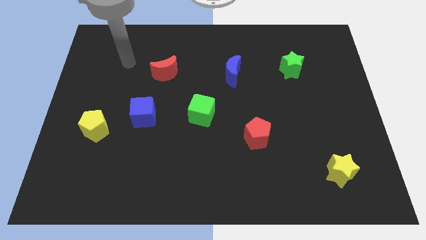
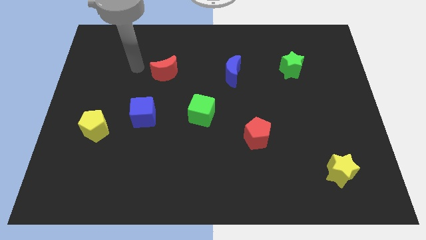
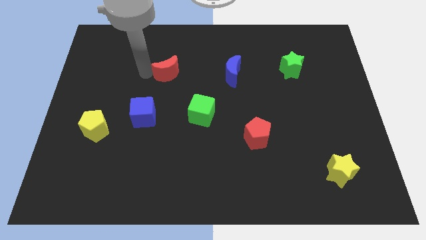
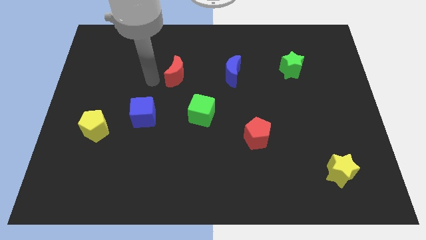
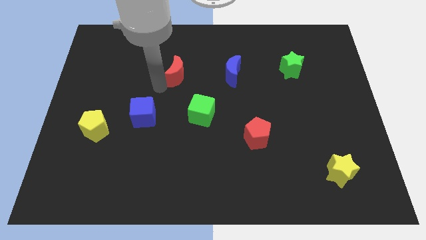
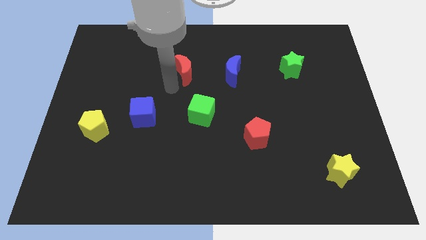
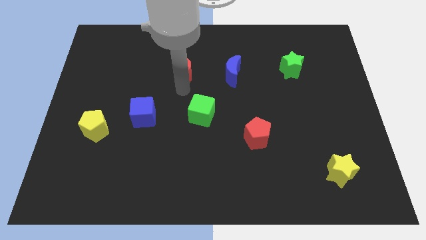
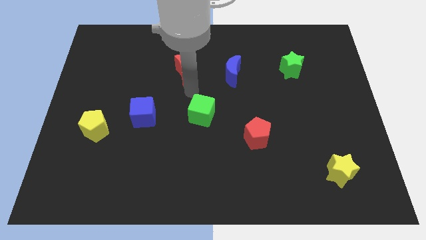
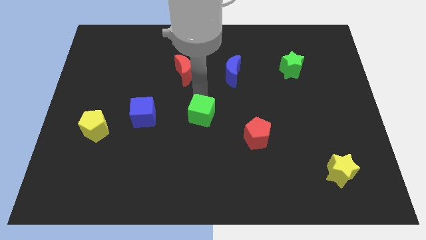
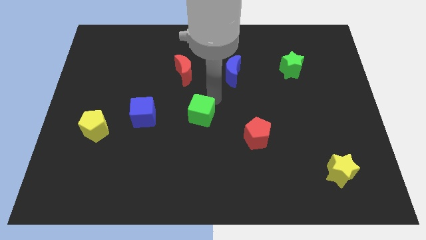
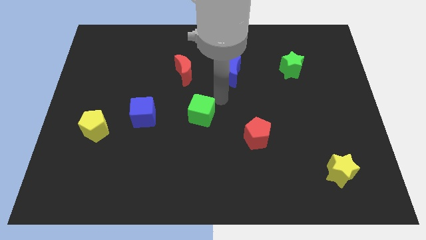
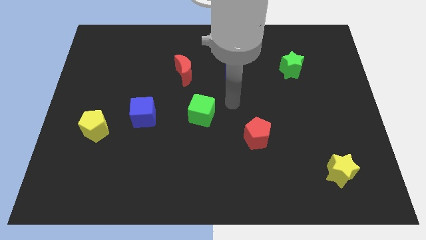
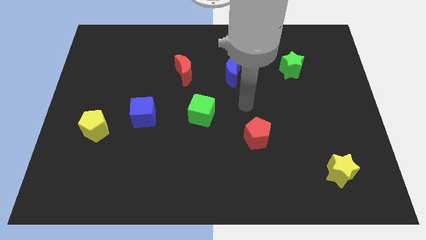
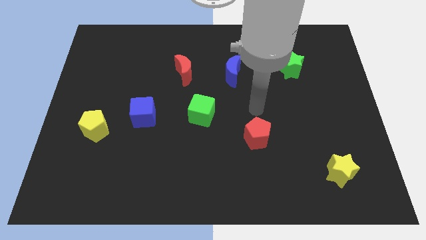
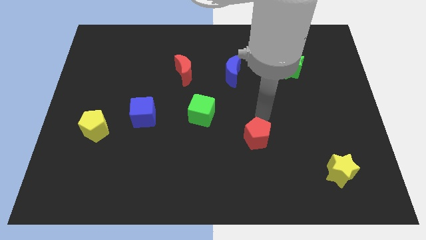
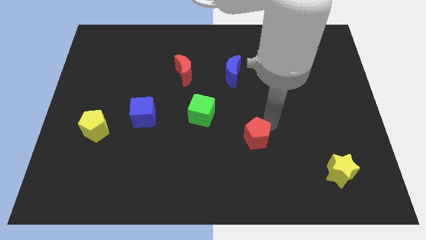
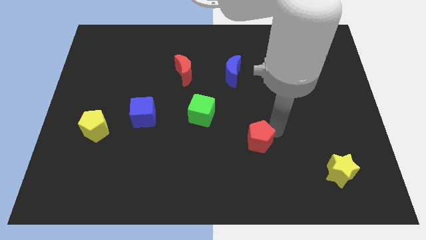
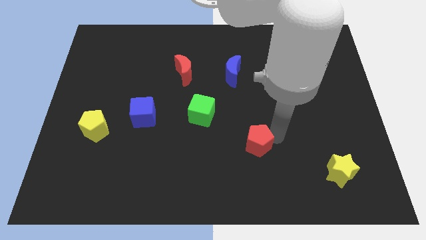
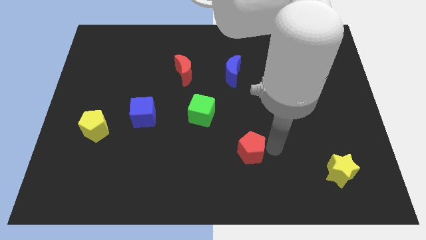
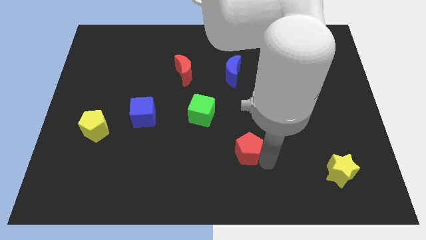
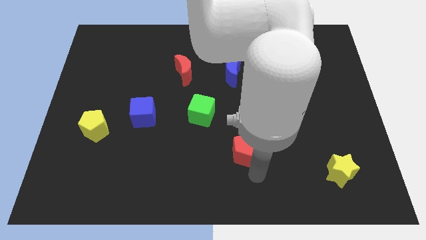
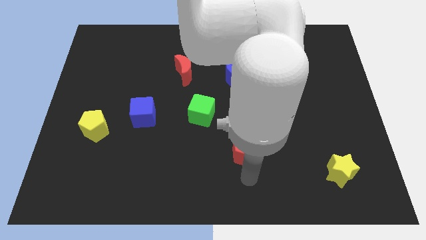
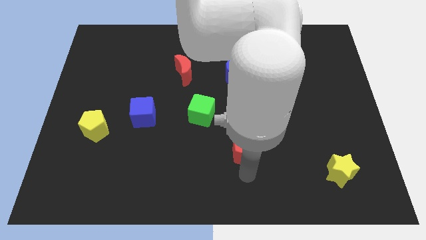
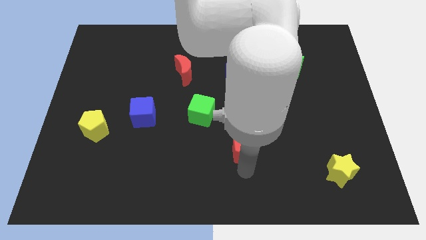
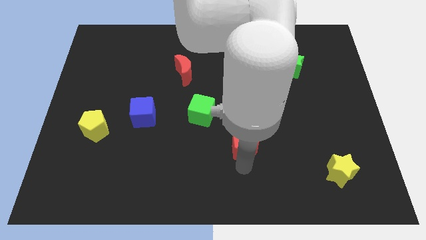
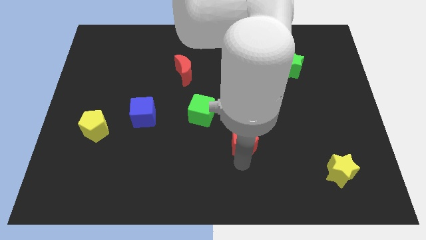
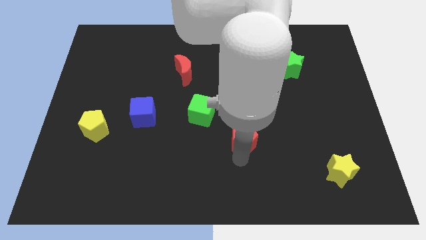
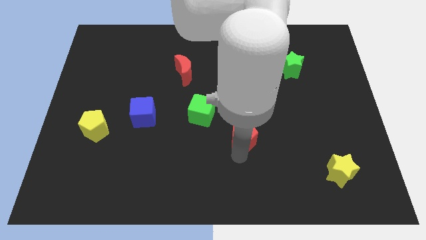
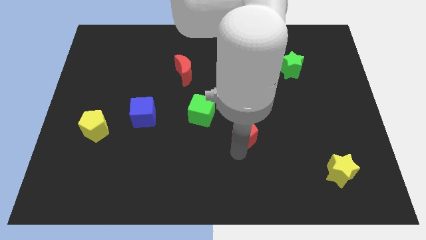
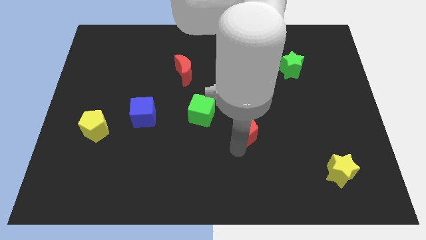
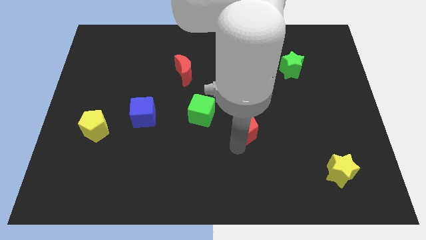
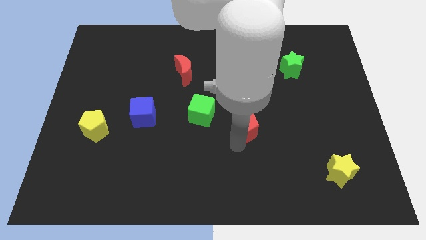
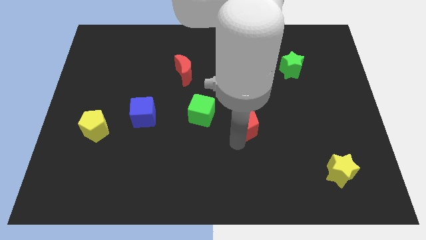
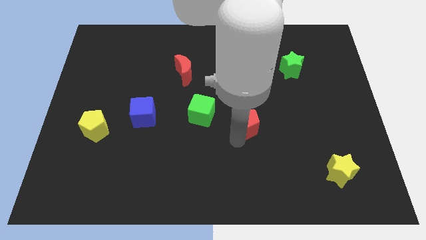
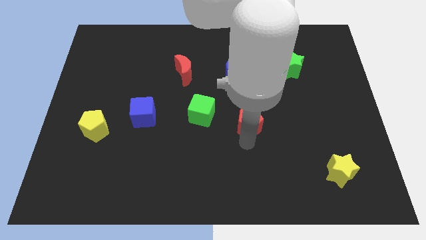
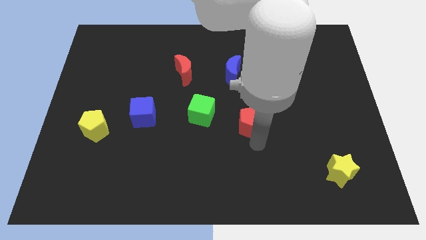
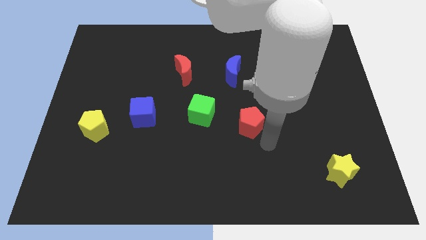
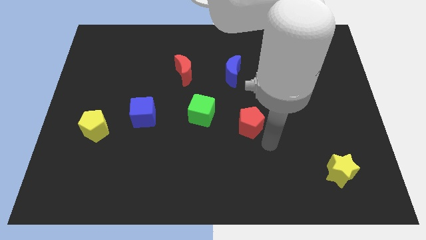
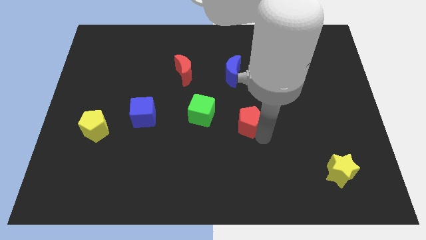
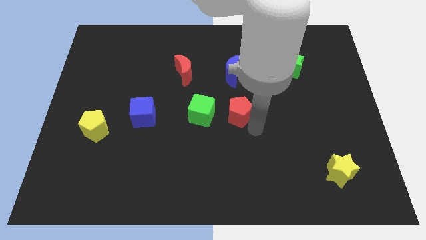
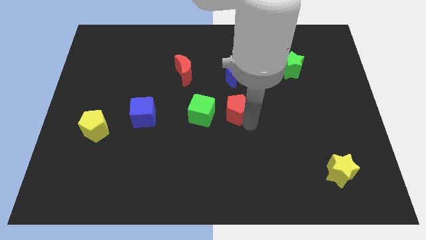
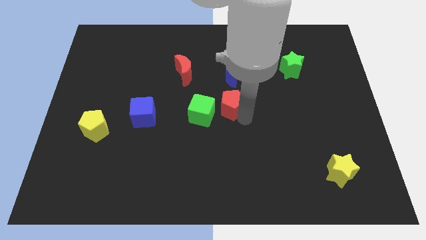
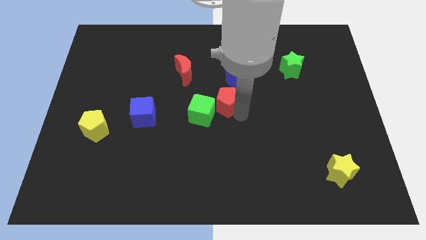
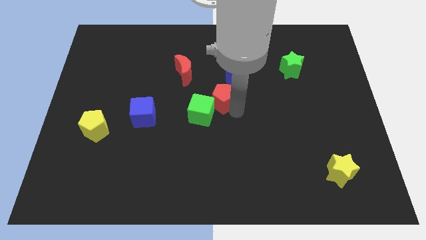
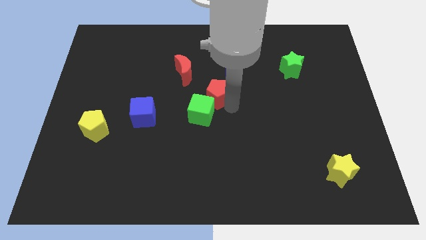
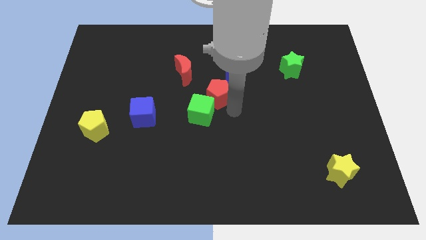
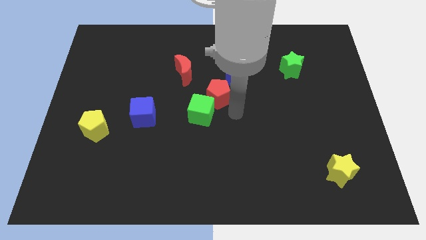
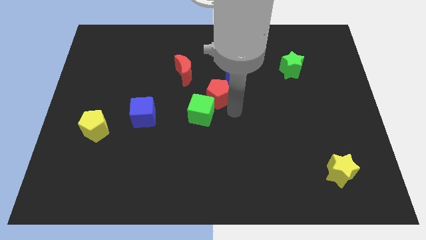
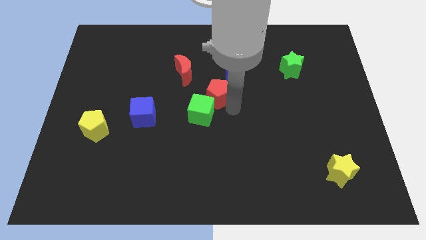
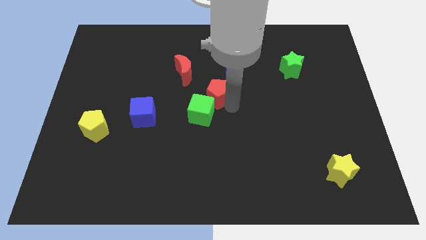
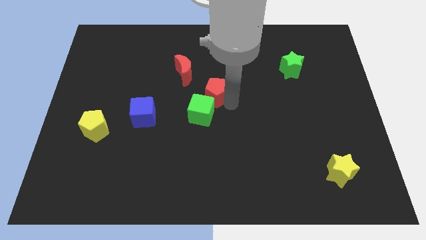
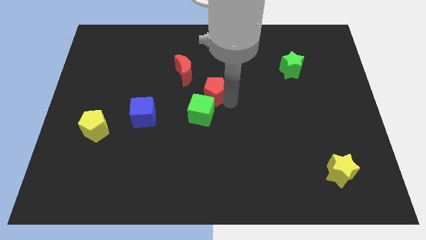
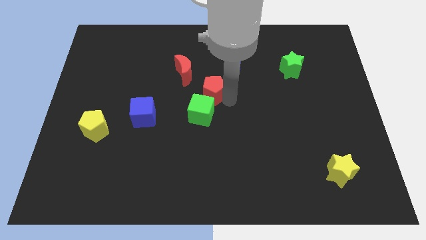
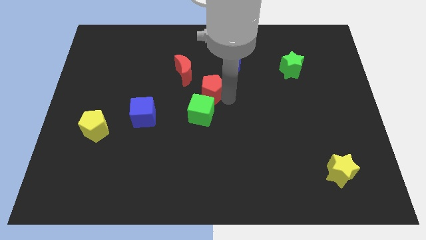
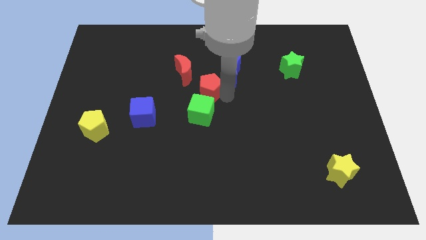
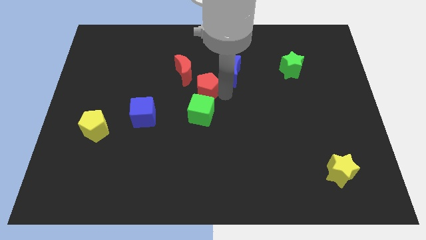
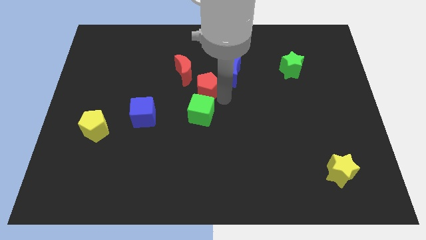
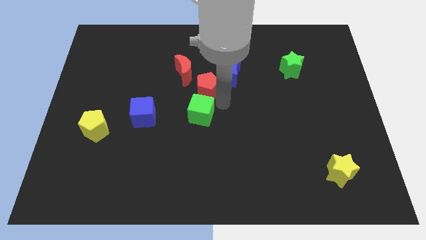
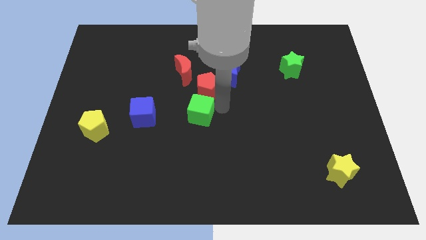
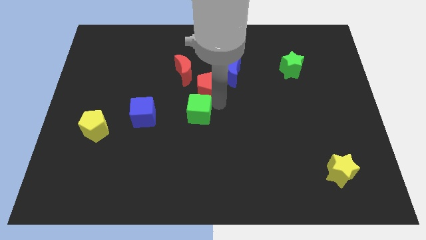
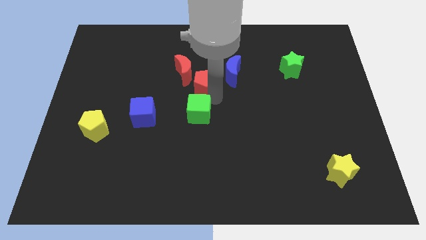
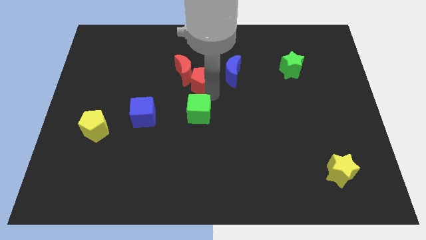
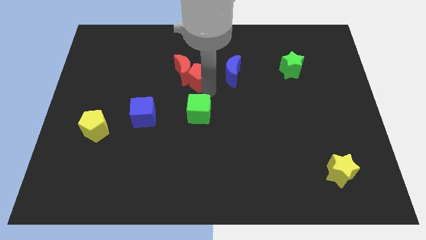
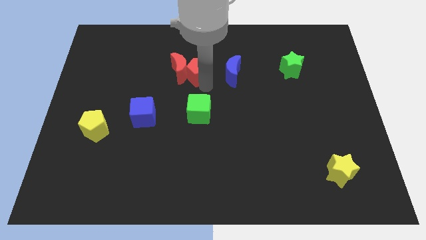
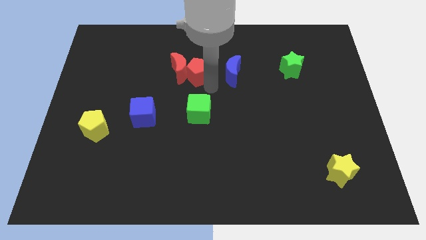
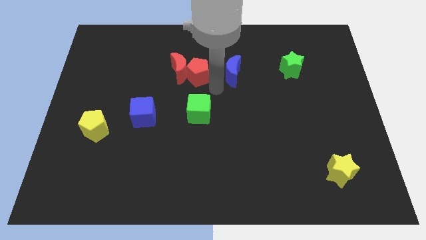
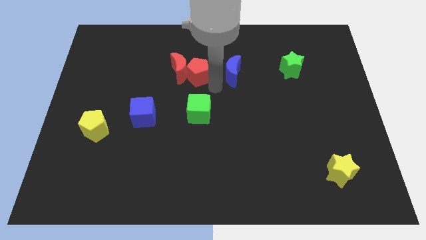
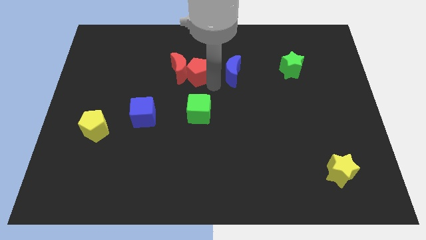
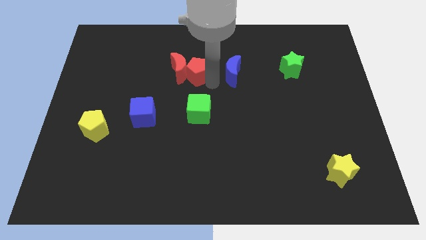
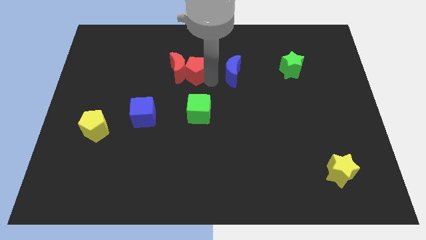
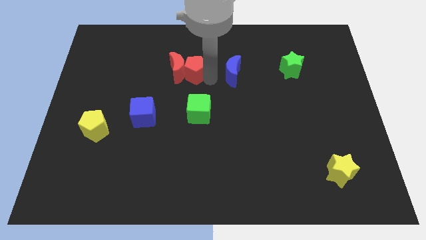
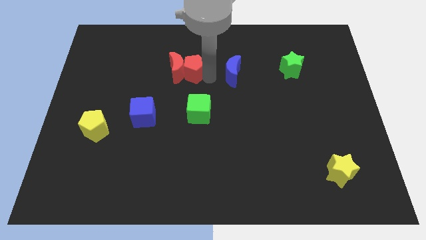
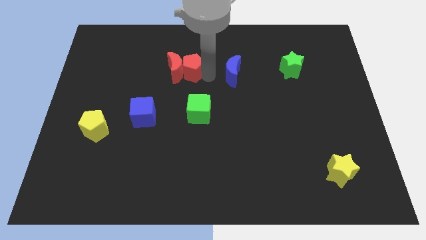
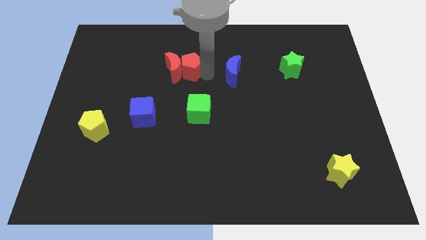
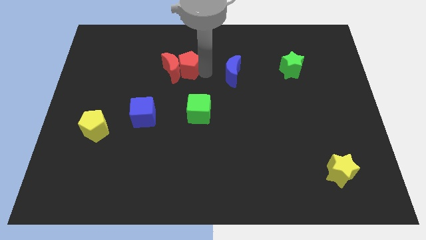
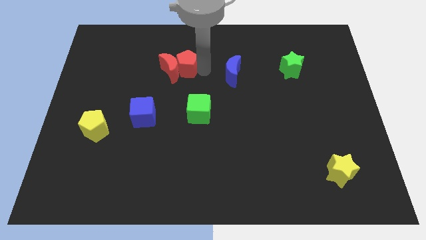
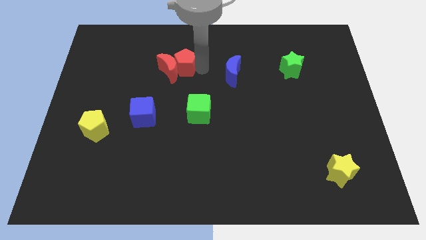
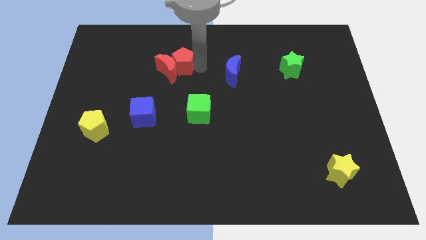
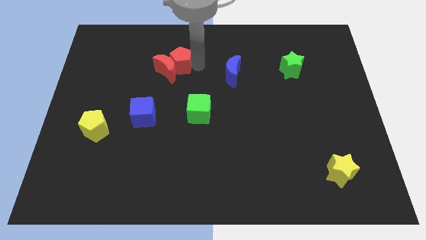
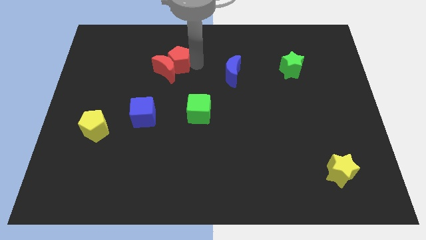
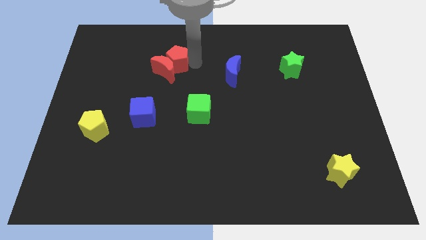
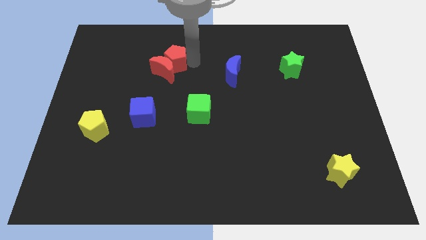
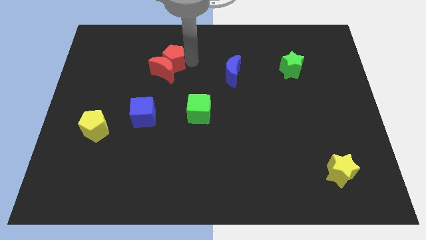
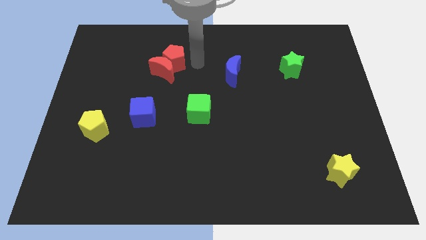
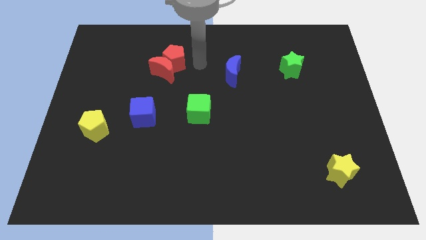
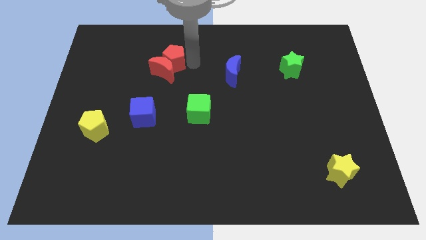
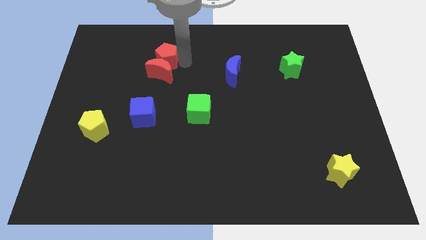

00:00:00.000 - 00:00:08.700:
move the red pentagon to the top left of the red moon
